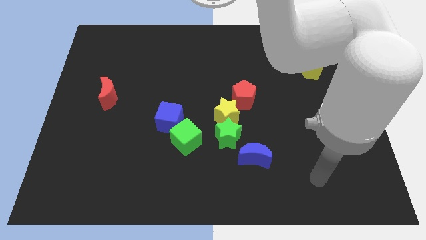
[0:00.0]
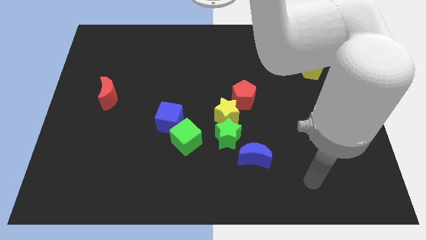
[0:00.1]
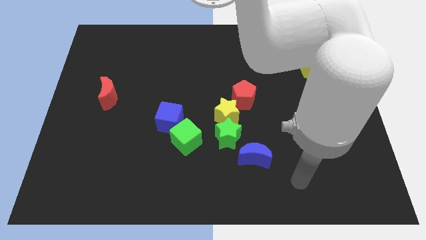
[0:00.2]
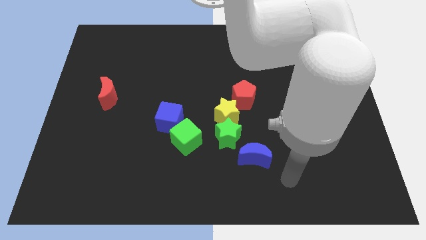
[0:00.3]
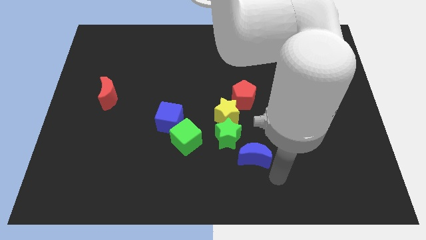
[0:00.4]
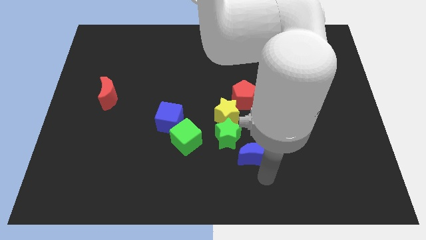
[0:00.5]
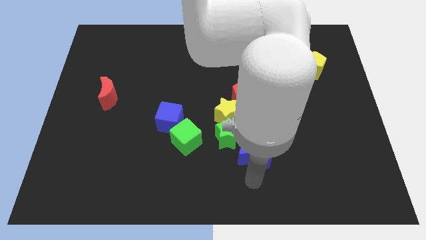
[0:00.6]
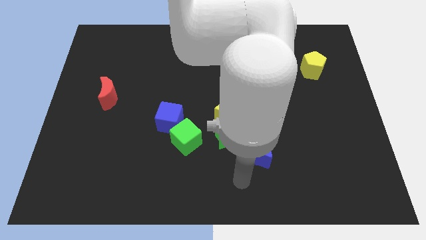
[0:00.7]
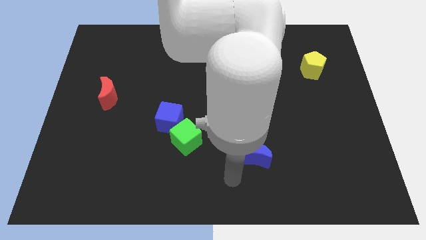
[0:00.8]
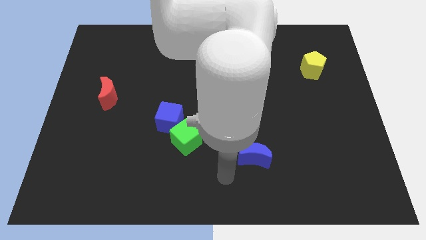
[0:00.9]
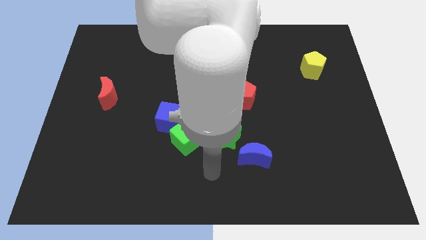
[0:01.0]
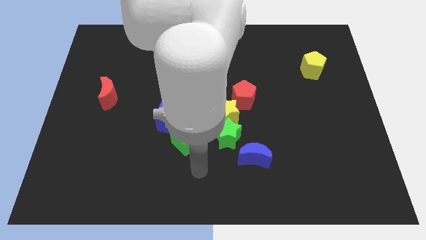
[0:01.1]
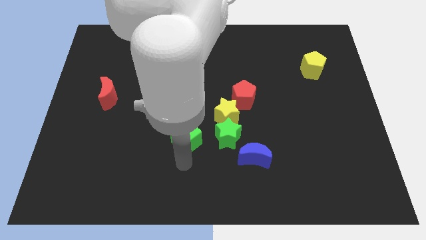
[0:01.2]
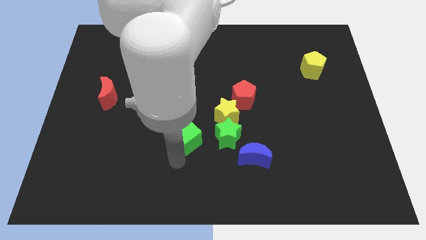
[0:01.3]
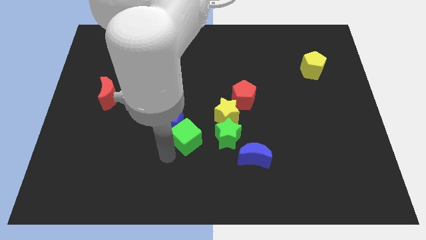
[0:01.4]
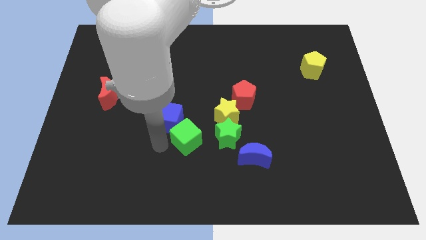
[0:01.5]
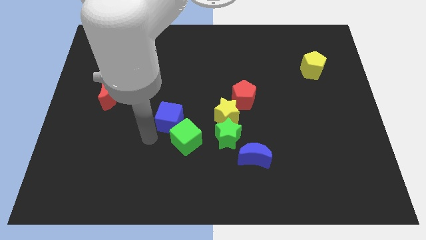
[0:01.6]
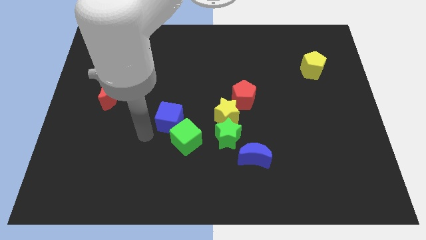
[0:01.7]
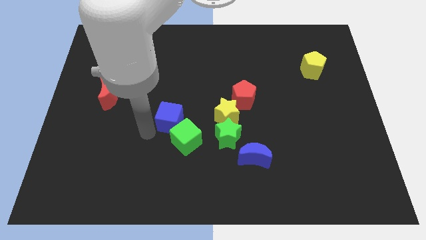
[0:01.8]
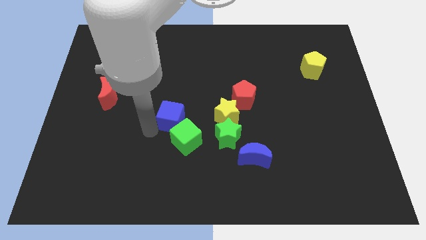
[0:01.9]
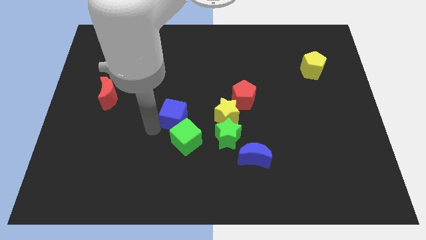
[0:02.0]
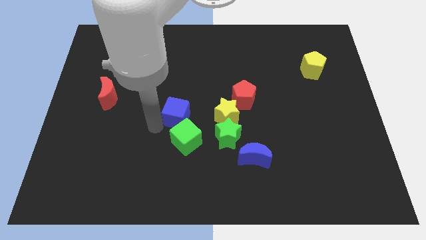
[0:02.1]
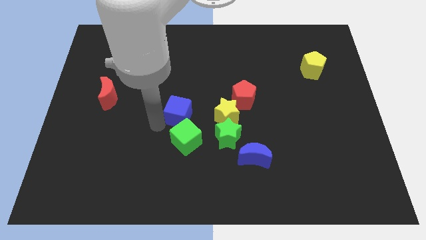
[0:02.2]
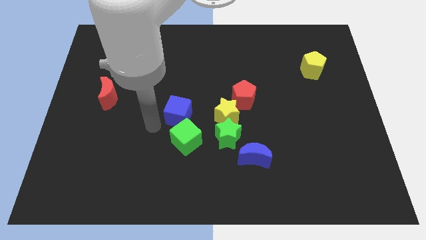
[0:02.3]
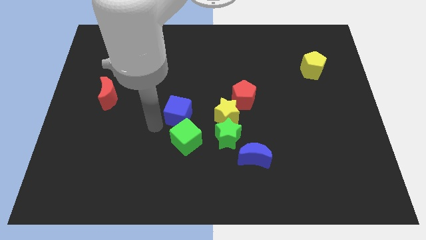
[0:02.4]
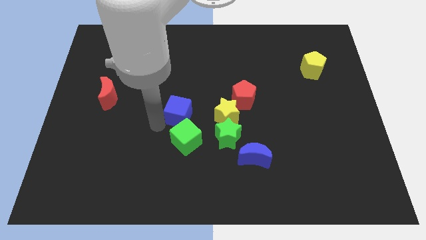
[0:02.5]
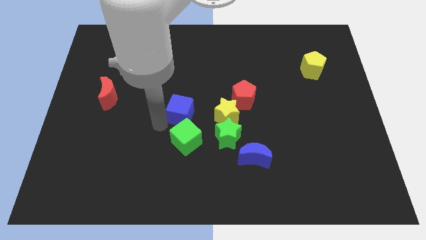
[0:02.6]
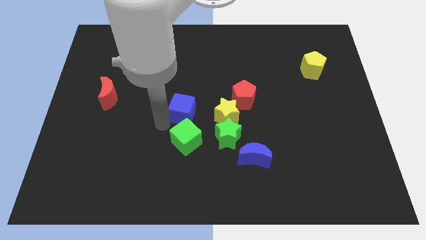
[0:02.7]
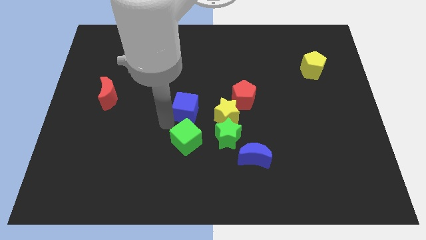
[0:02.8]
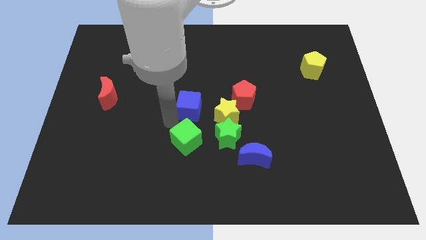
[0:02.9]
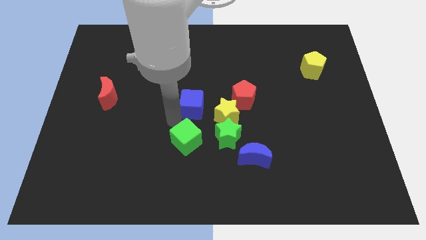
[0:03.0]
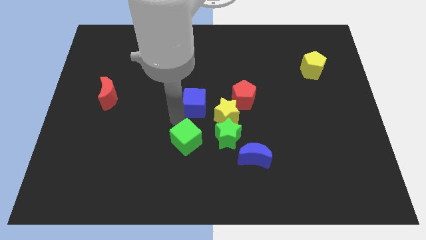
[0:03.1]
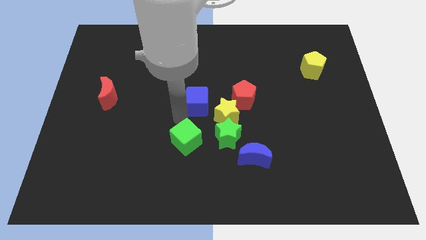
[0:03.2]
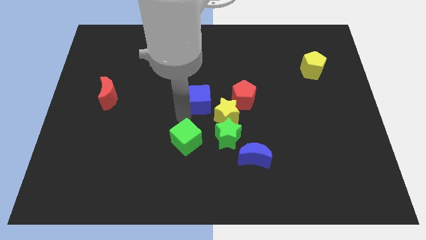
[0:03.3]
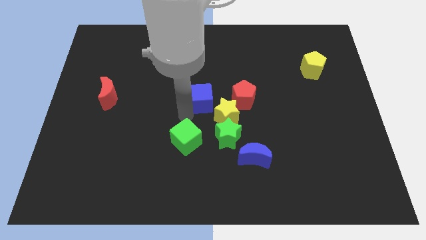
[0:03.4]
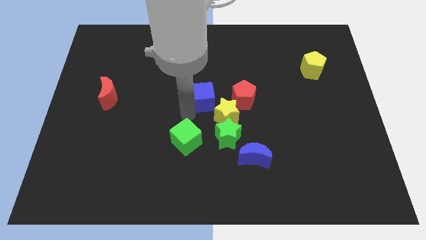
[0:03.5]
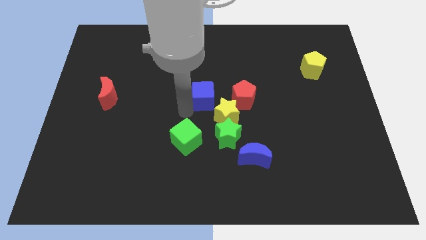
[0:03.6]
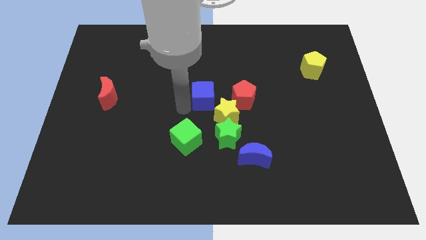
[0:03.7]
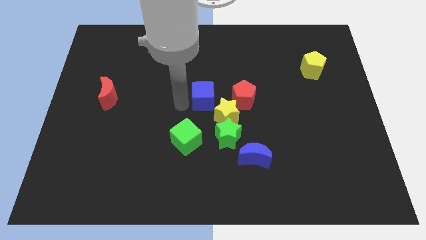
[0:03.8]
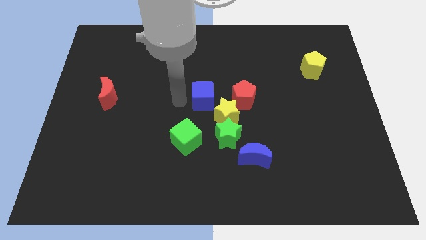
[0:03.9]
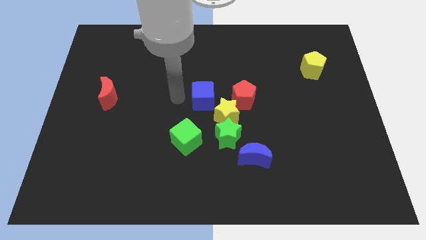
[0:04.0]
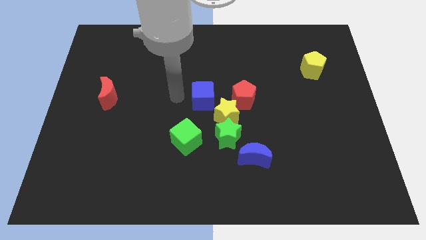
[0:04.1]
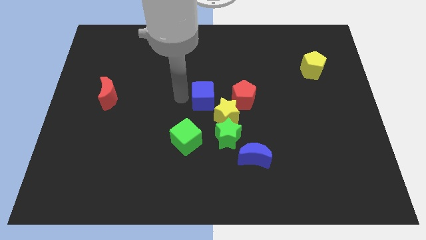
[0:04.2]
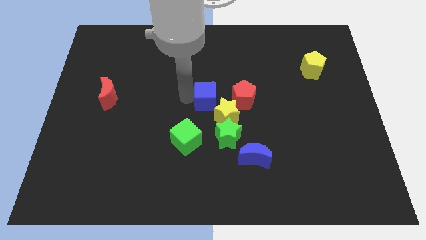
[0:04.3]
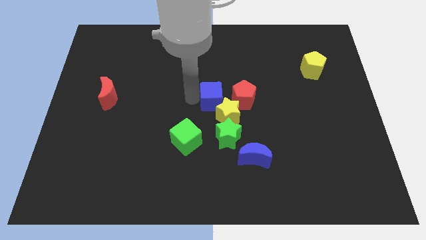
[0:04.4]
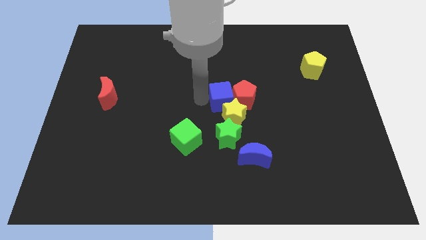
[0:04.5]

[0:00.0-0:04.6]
slide the blue cube close to the red pentagon

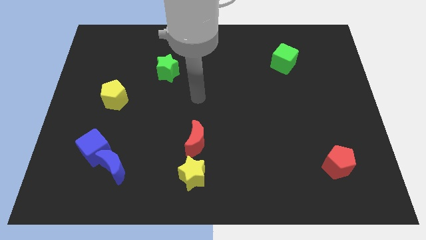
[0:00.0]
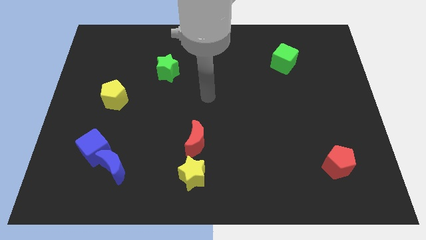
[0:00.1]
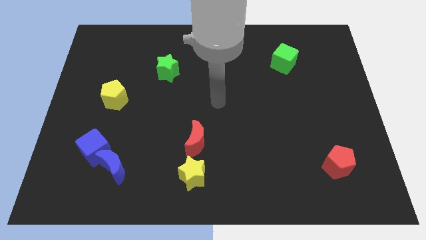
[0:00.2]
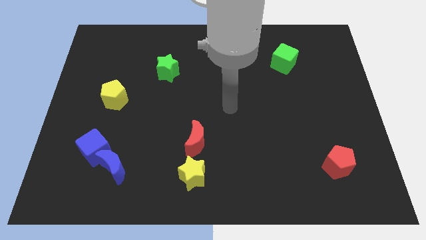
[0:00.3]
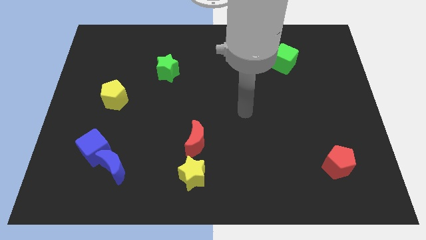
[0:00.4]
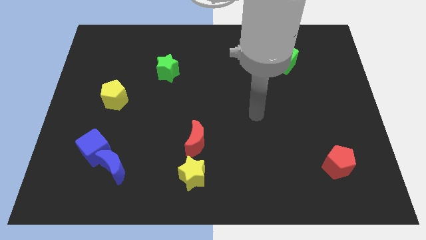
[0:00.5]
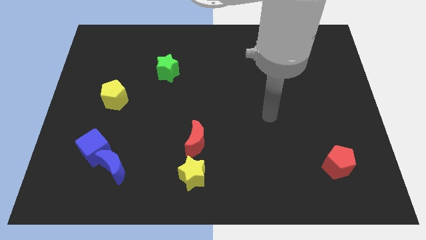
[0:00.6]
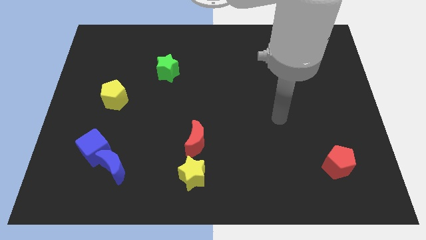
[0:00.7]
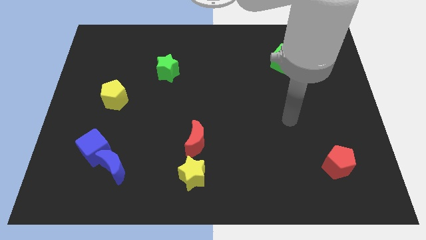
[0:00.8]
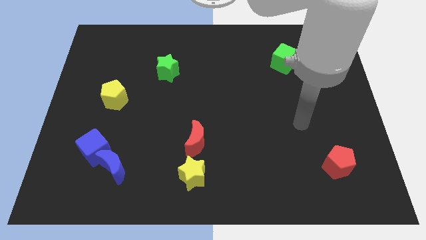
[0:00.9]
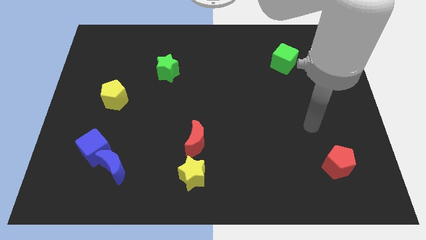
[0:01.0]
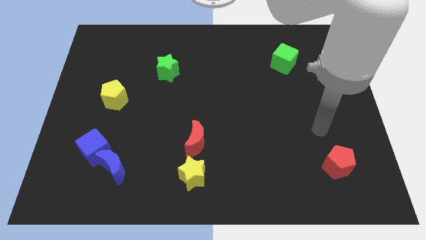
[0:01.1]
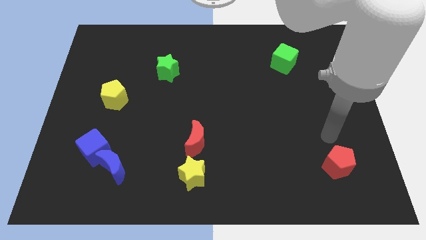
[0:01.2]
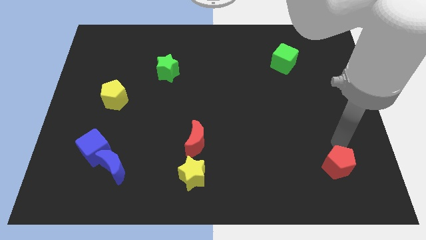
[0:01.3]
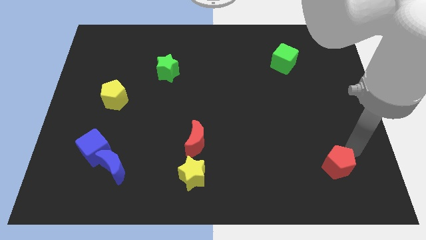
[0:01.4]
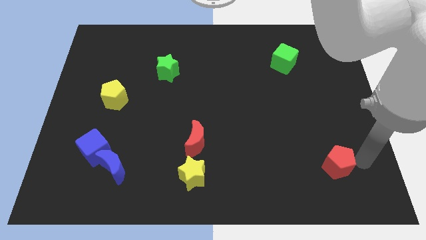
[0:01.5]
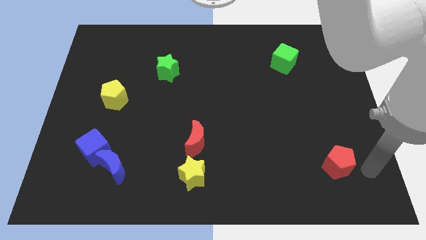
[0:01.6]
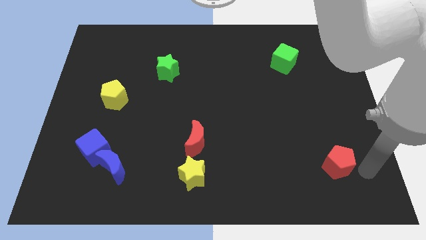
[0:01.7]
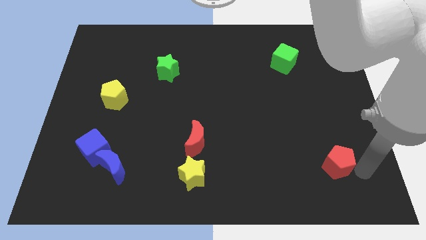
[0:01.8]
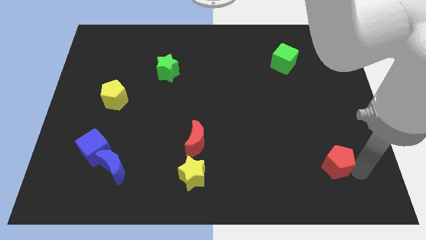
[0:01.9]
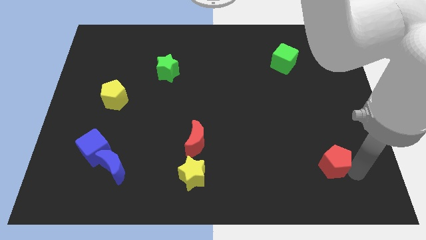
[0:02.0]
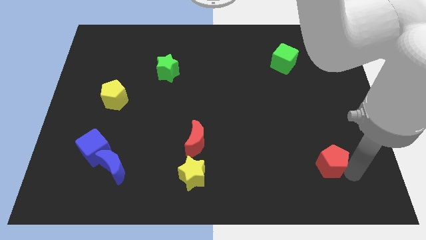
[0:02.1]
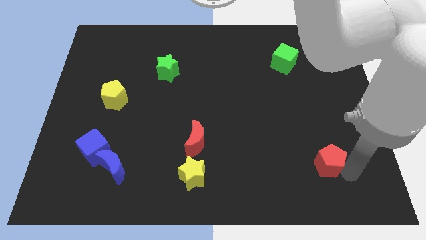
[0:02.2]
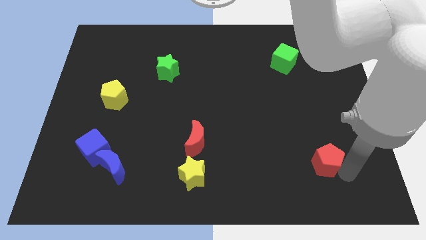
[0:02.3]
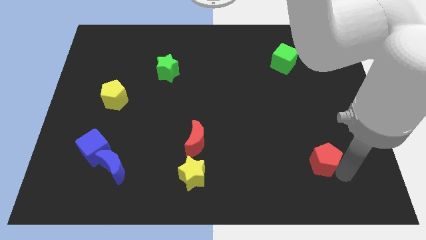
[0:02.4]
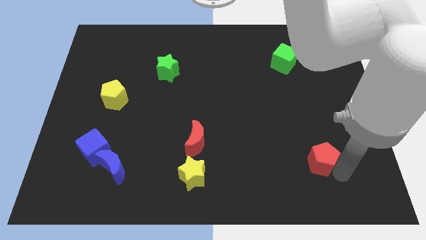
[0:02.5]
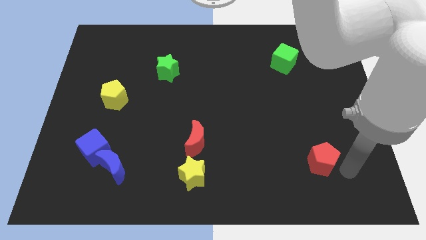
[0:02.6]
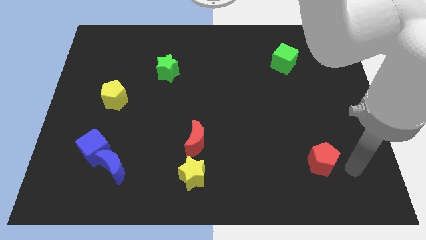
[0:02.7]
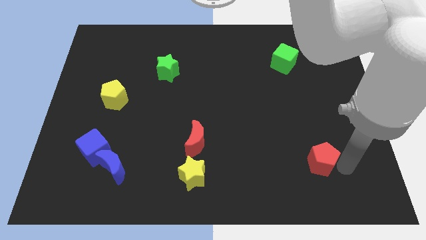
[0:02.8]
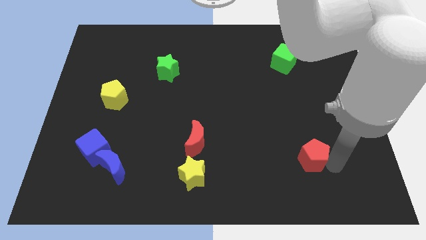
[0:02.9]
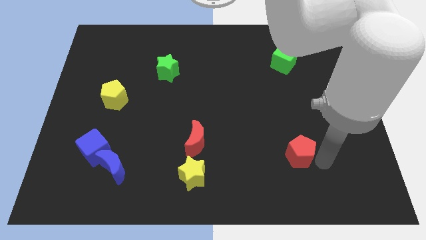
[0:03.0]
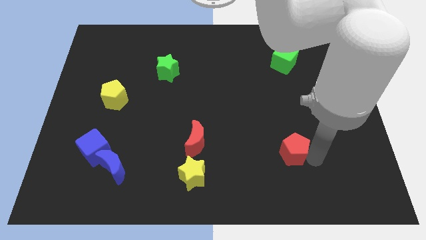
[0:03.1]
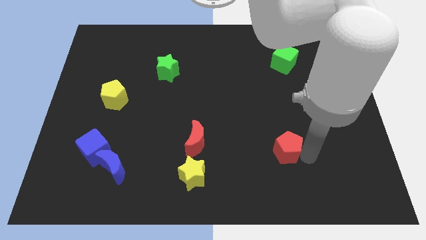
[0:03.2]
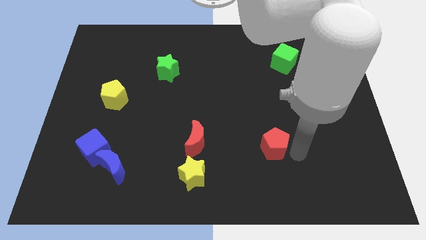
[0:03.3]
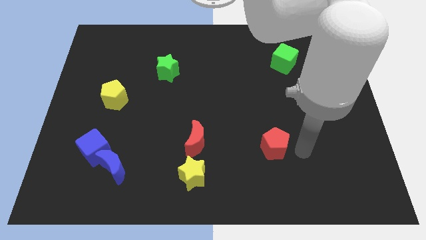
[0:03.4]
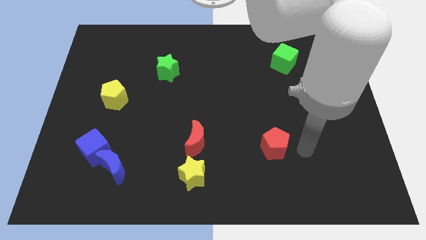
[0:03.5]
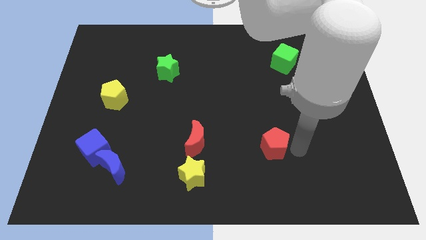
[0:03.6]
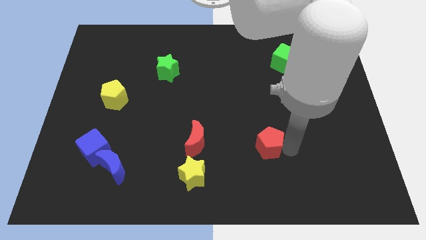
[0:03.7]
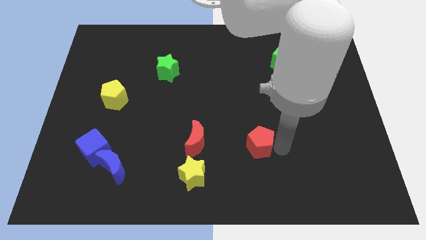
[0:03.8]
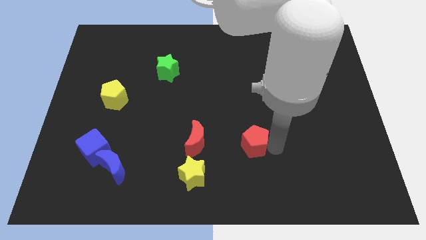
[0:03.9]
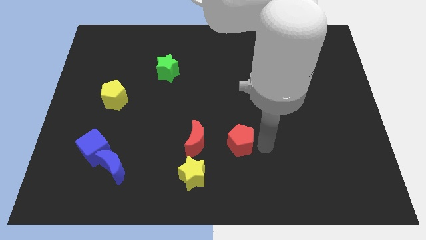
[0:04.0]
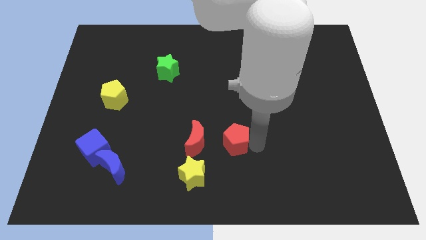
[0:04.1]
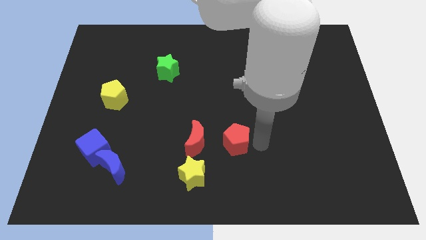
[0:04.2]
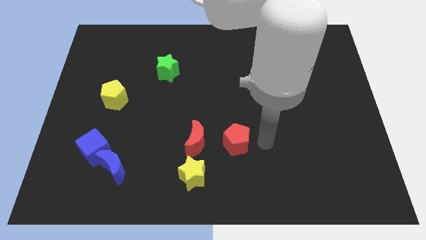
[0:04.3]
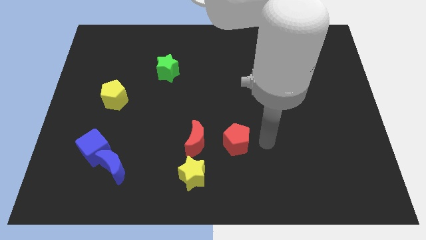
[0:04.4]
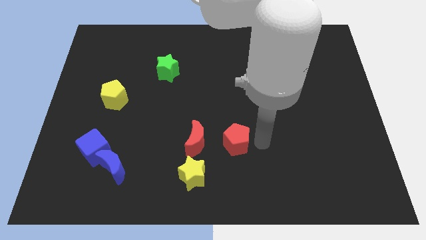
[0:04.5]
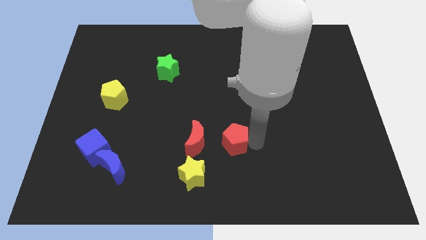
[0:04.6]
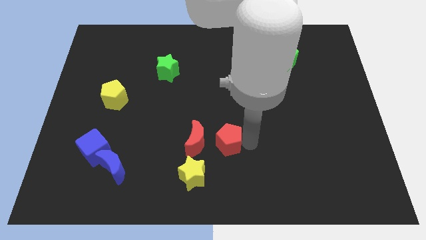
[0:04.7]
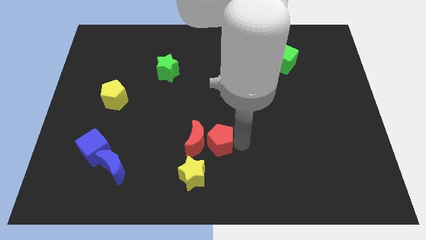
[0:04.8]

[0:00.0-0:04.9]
put the red pentagon to the red moon
